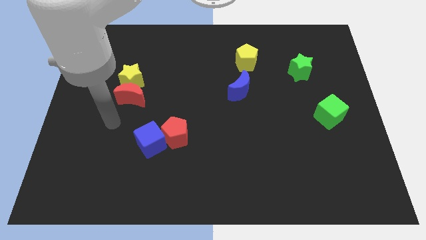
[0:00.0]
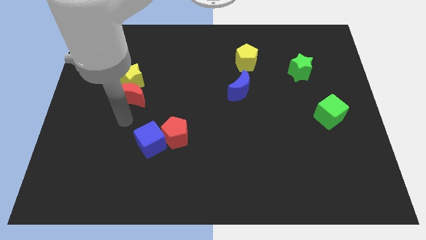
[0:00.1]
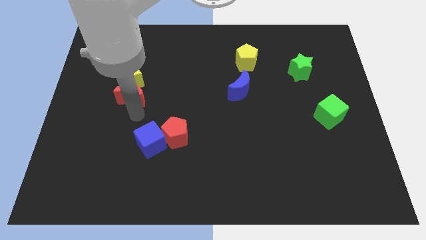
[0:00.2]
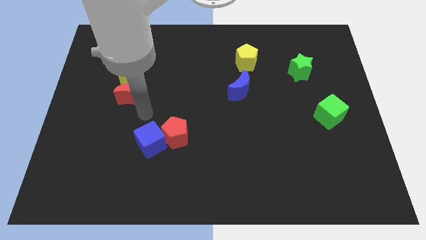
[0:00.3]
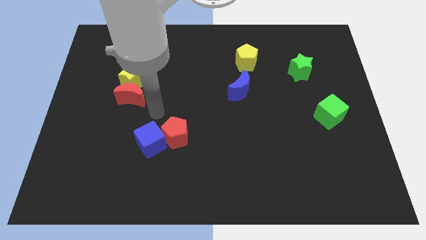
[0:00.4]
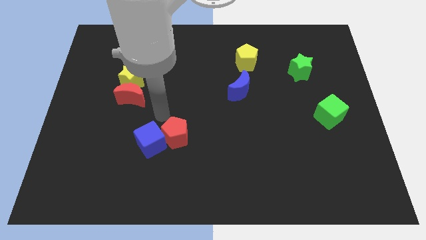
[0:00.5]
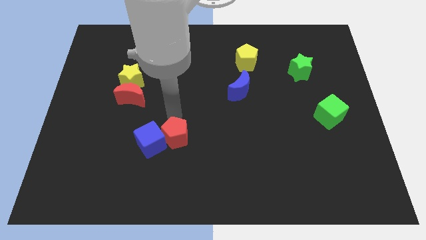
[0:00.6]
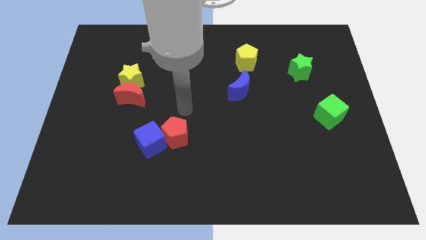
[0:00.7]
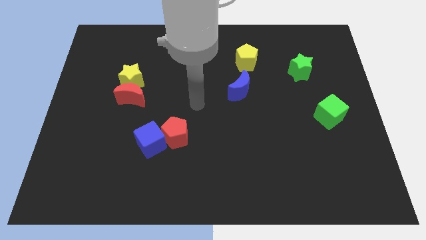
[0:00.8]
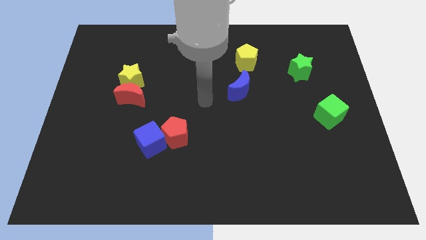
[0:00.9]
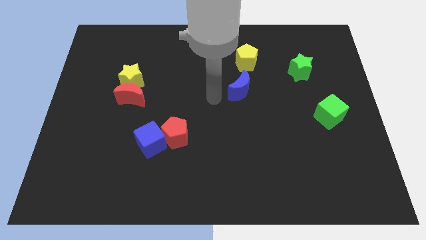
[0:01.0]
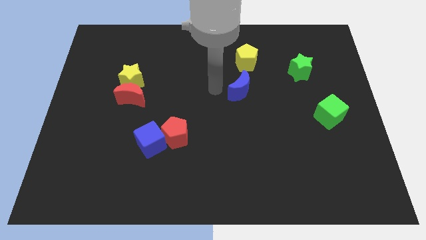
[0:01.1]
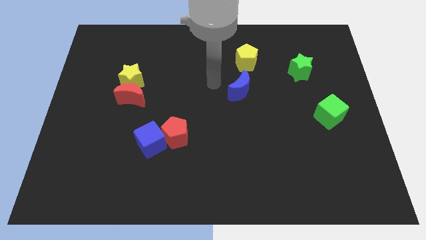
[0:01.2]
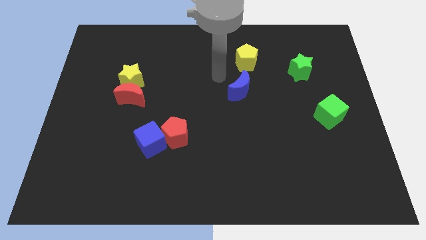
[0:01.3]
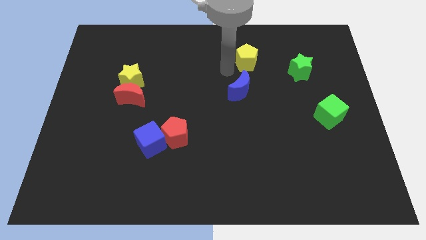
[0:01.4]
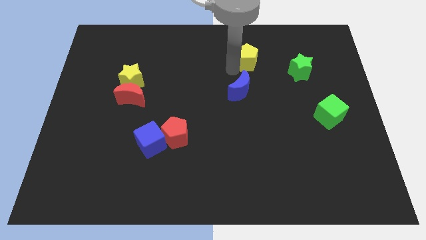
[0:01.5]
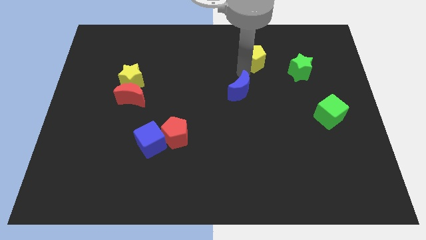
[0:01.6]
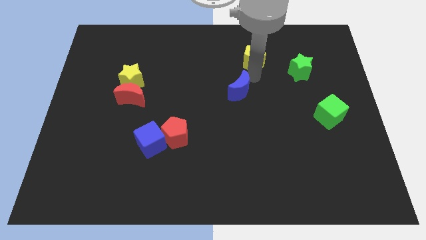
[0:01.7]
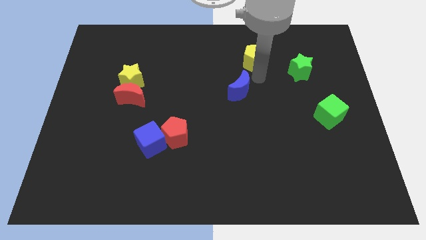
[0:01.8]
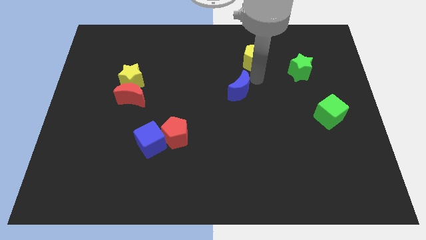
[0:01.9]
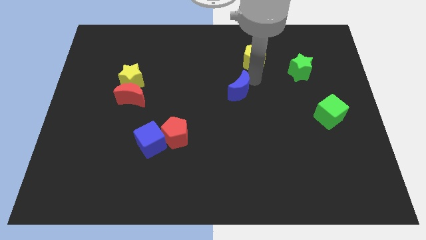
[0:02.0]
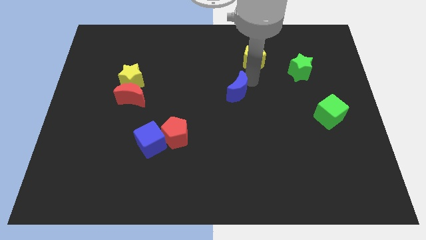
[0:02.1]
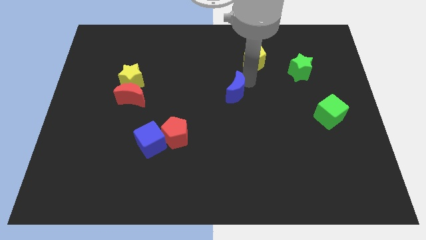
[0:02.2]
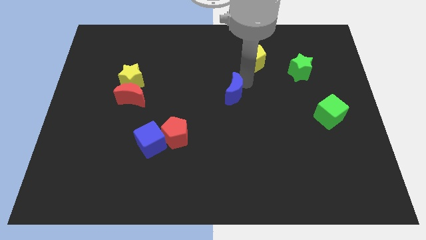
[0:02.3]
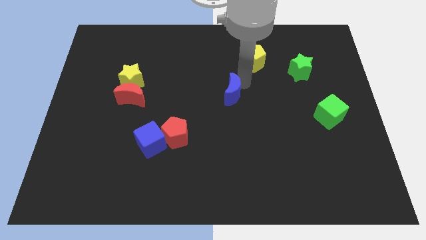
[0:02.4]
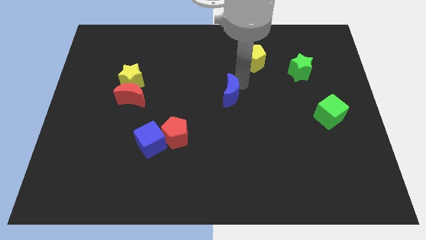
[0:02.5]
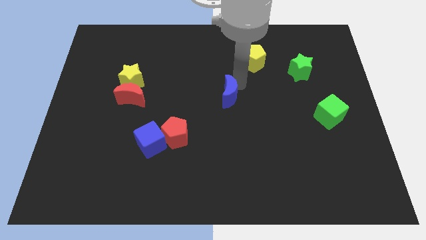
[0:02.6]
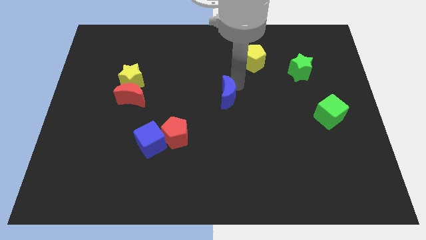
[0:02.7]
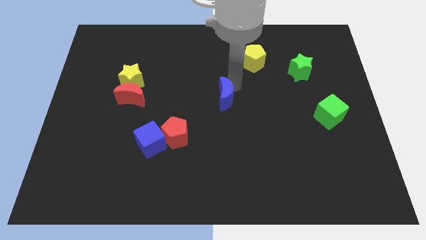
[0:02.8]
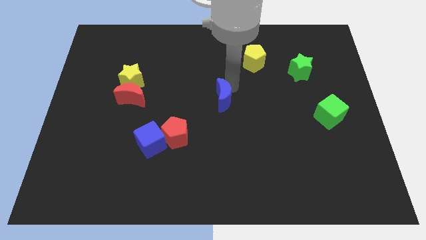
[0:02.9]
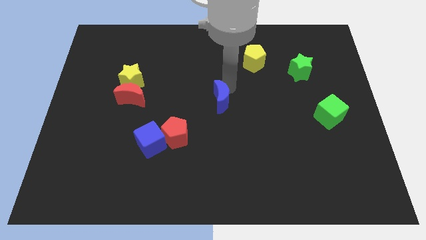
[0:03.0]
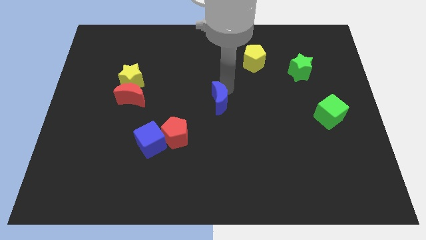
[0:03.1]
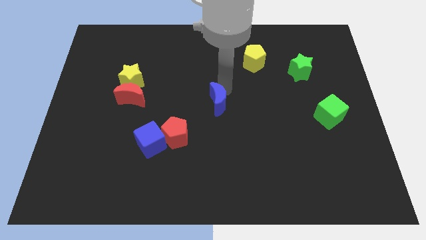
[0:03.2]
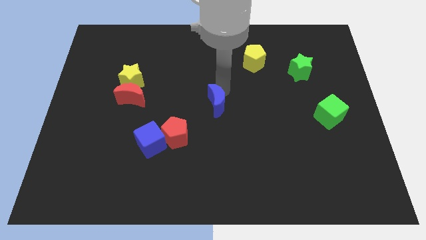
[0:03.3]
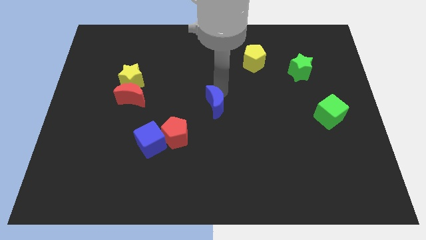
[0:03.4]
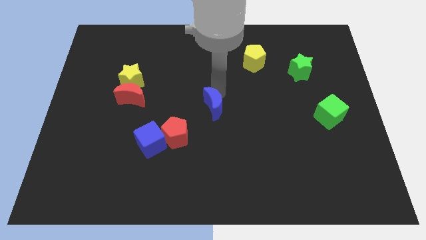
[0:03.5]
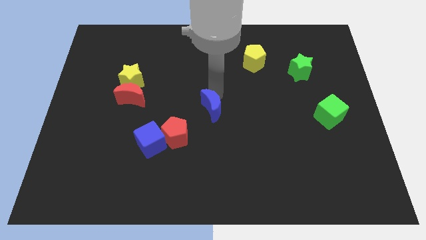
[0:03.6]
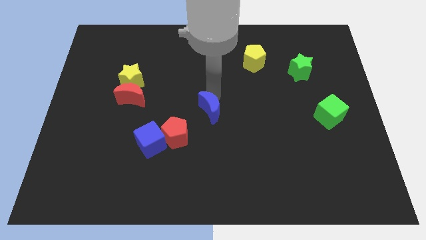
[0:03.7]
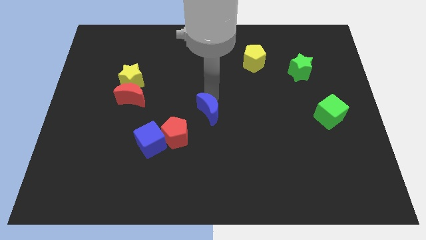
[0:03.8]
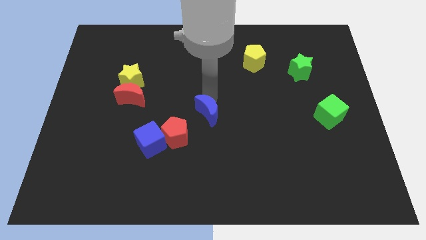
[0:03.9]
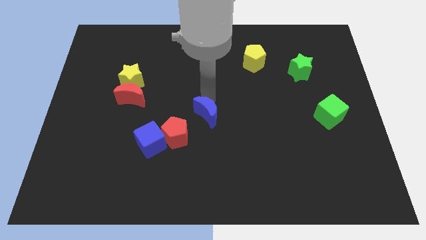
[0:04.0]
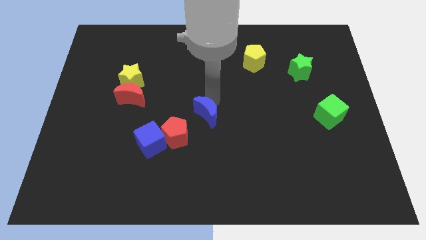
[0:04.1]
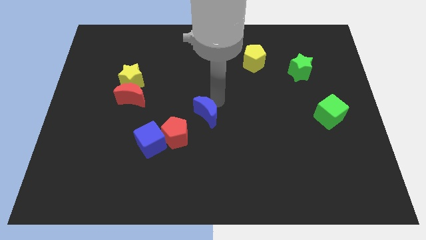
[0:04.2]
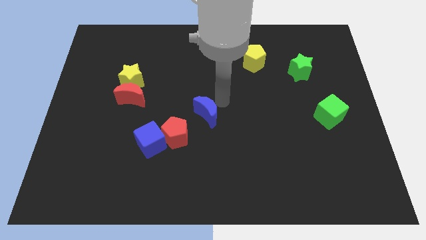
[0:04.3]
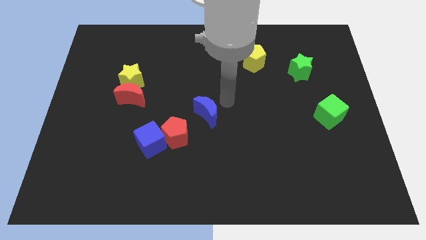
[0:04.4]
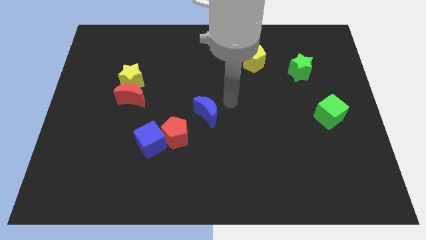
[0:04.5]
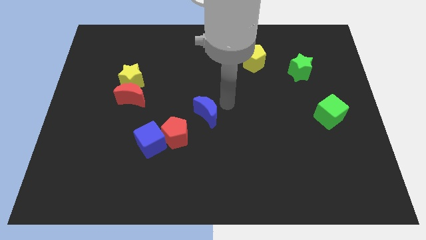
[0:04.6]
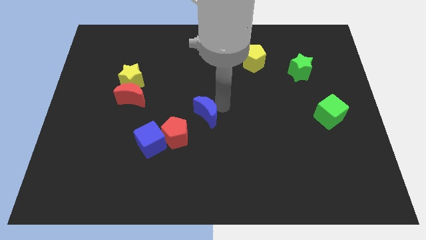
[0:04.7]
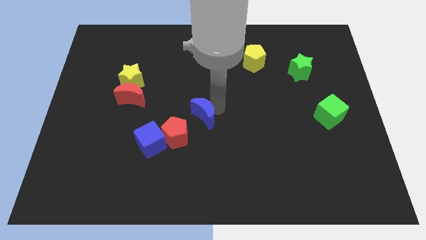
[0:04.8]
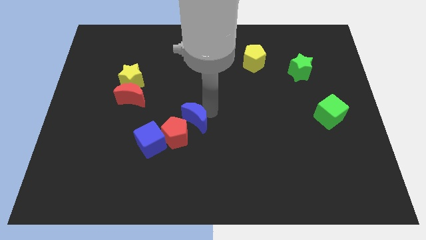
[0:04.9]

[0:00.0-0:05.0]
put the blue moon to the red pentagon

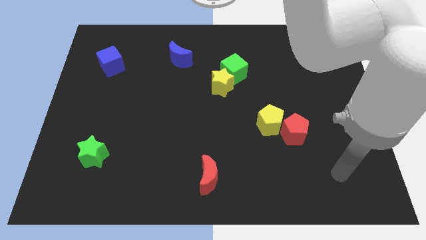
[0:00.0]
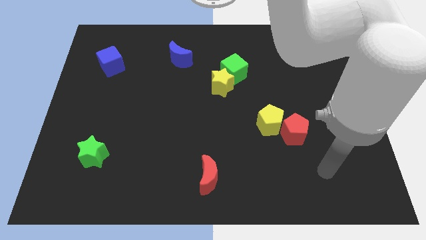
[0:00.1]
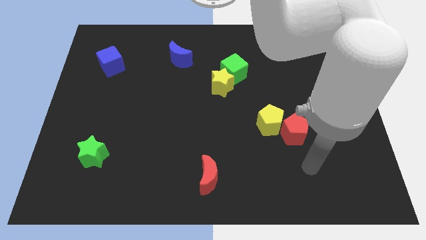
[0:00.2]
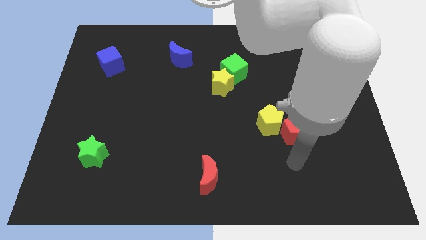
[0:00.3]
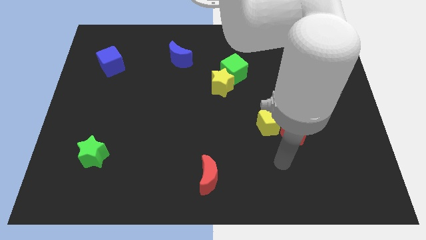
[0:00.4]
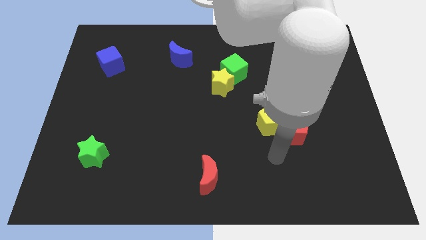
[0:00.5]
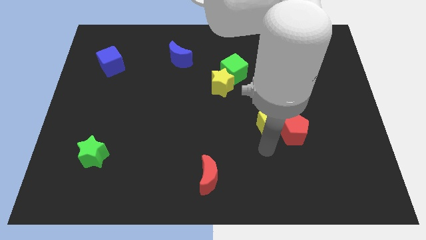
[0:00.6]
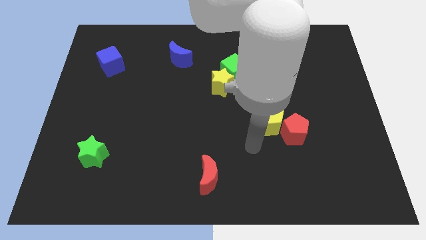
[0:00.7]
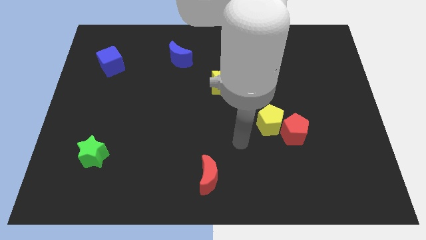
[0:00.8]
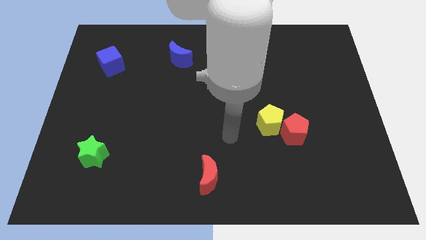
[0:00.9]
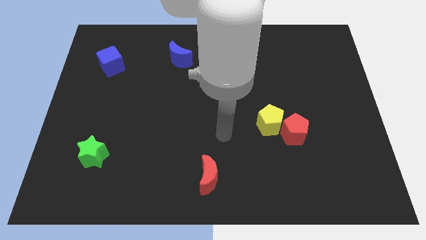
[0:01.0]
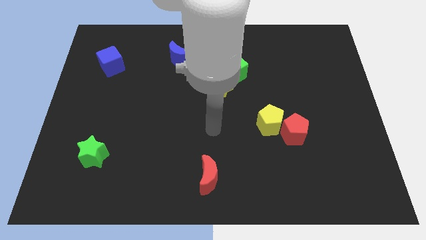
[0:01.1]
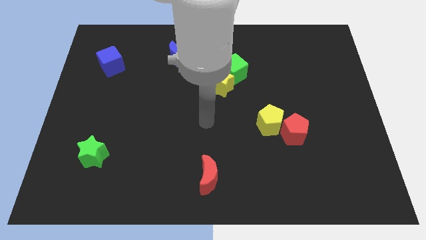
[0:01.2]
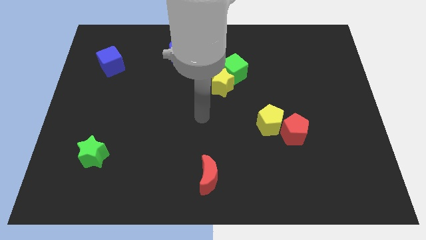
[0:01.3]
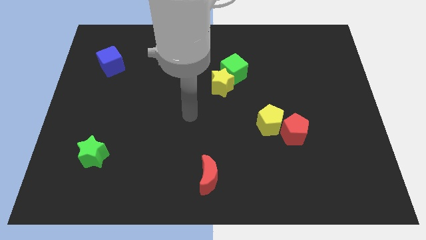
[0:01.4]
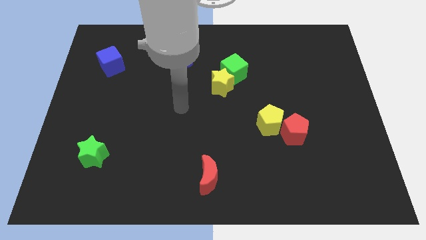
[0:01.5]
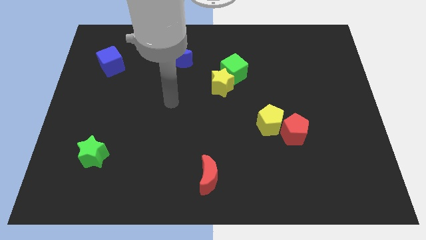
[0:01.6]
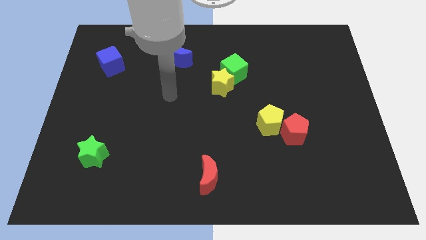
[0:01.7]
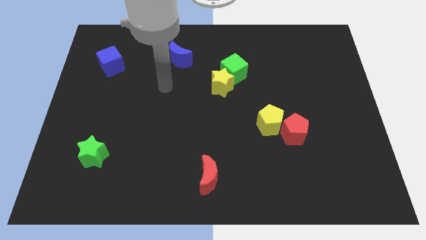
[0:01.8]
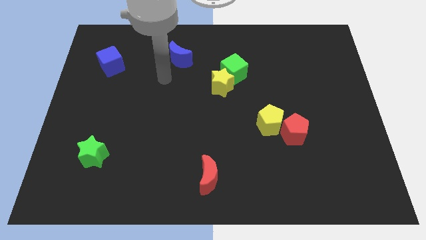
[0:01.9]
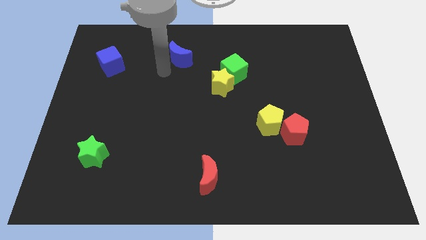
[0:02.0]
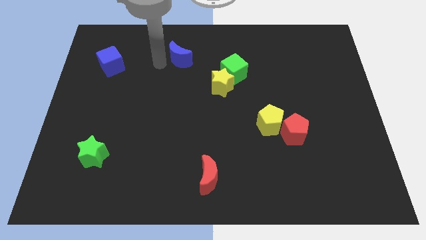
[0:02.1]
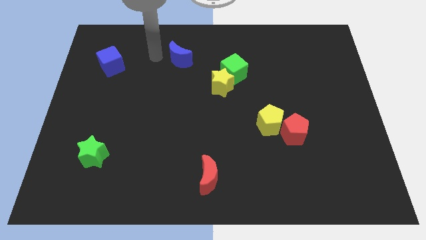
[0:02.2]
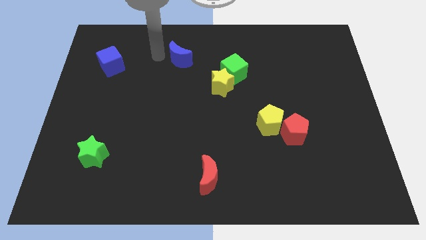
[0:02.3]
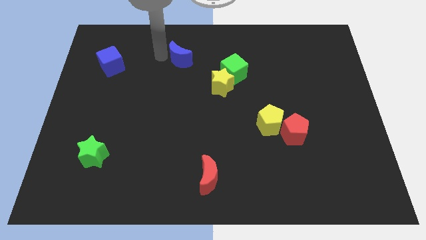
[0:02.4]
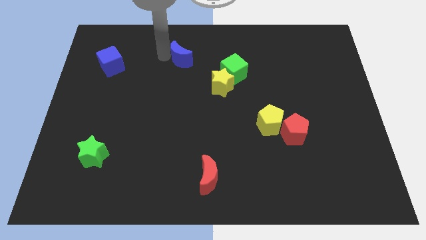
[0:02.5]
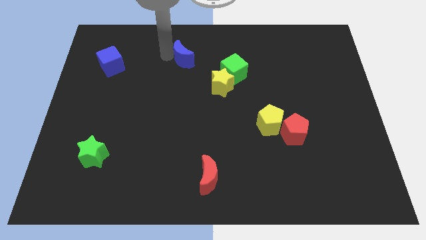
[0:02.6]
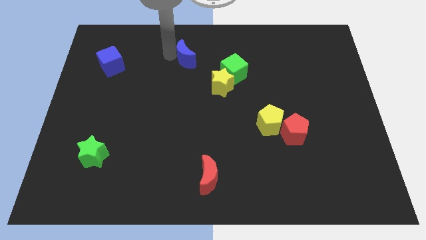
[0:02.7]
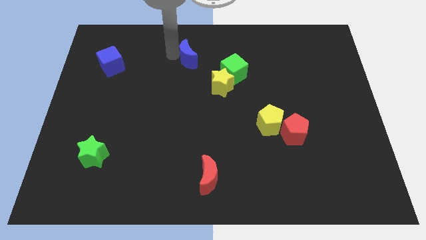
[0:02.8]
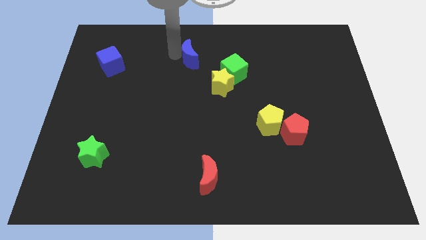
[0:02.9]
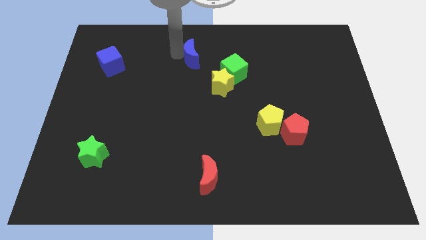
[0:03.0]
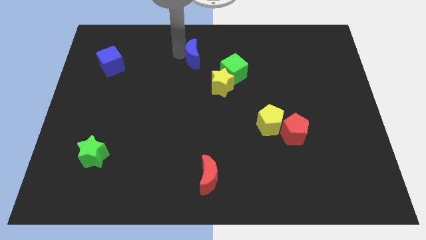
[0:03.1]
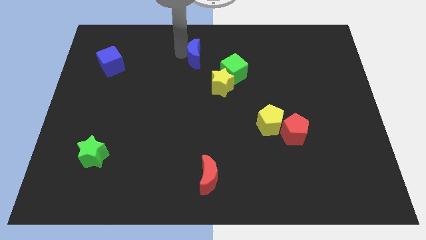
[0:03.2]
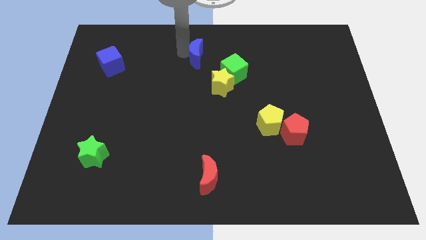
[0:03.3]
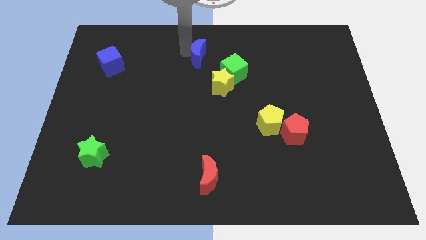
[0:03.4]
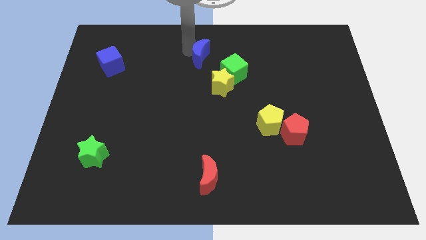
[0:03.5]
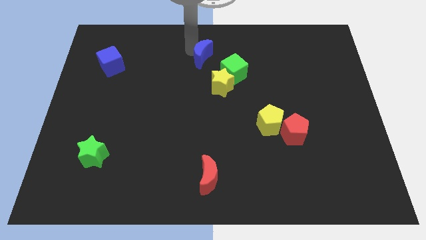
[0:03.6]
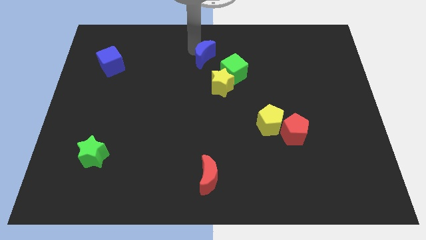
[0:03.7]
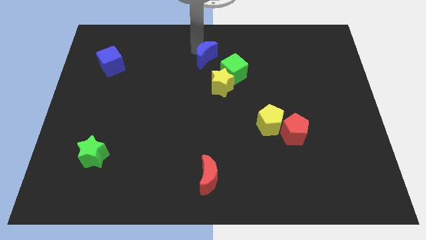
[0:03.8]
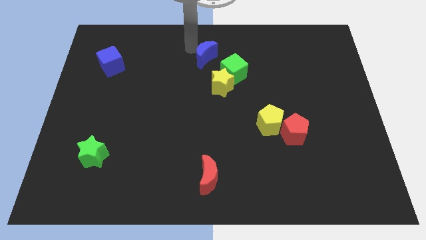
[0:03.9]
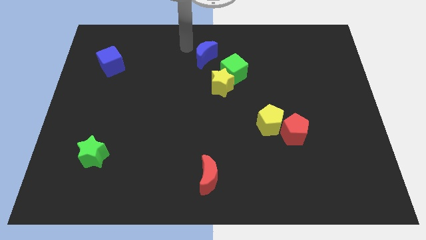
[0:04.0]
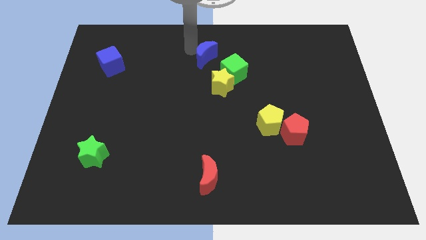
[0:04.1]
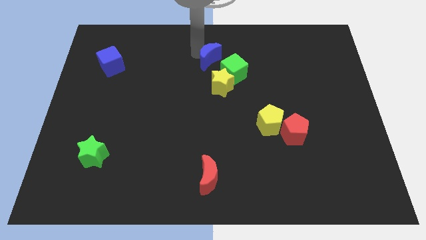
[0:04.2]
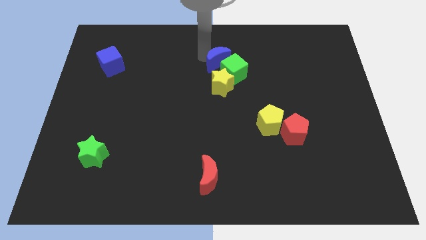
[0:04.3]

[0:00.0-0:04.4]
push the blue moon to the green cube
